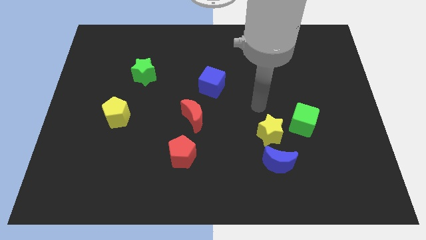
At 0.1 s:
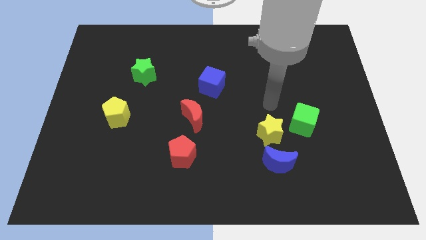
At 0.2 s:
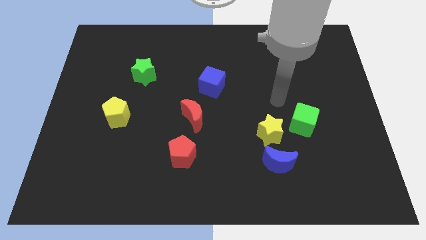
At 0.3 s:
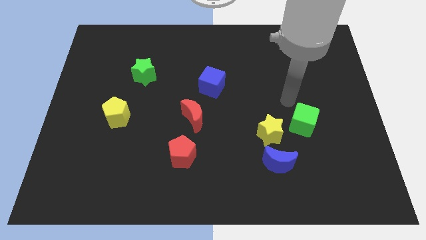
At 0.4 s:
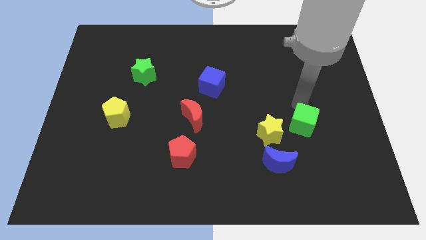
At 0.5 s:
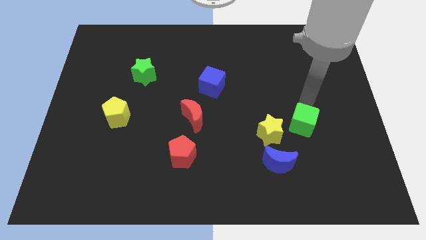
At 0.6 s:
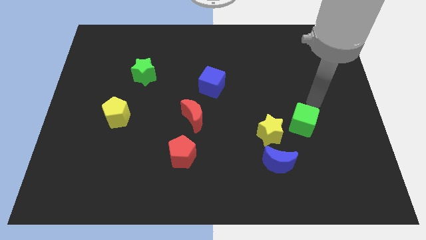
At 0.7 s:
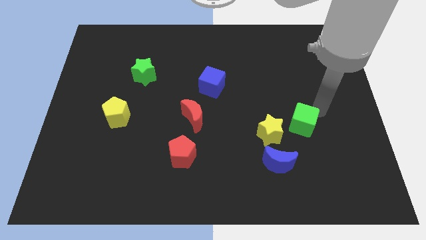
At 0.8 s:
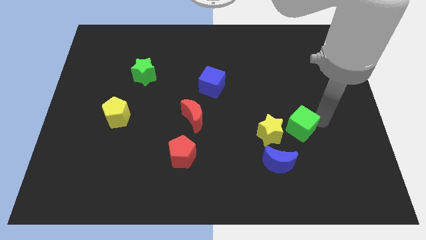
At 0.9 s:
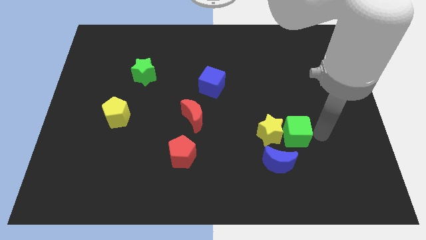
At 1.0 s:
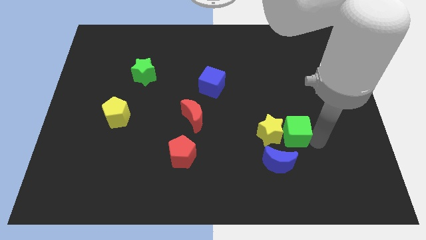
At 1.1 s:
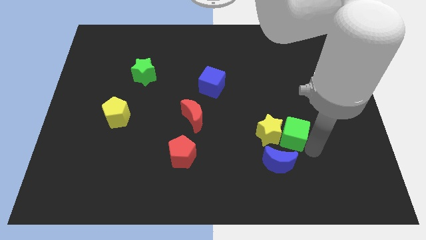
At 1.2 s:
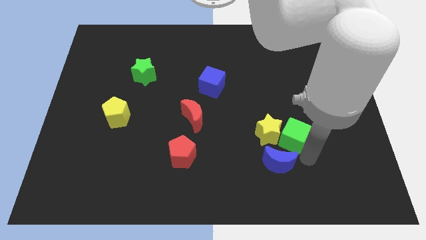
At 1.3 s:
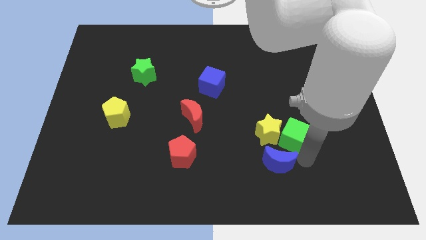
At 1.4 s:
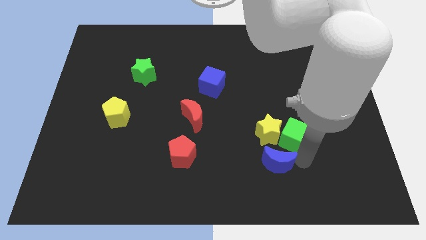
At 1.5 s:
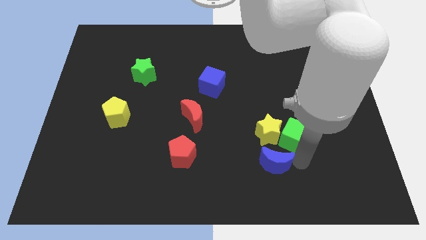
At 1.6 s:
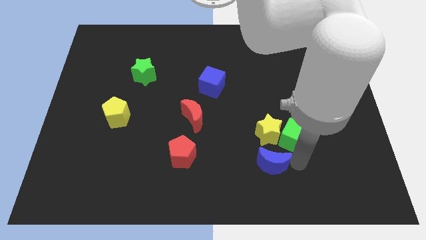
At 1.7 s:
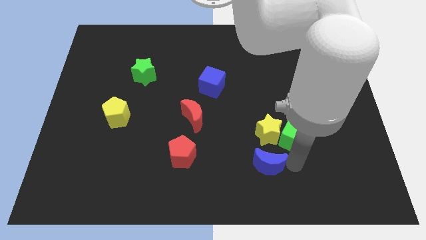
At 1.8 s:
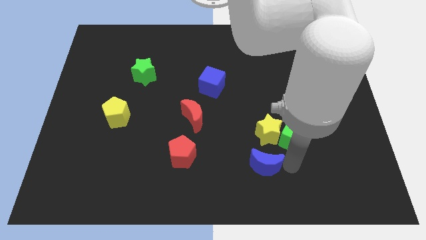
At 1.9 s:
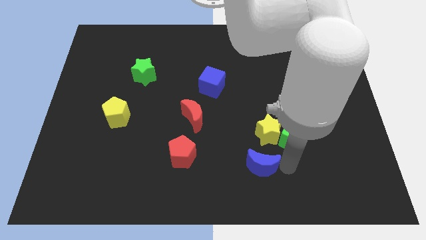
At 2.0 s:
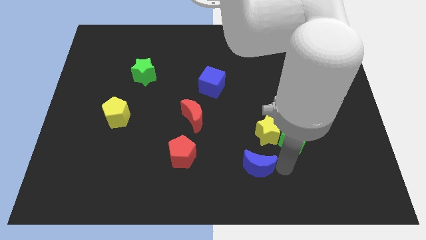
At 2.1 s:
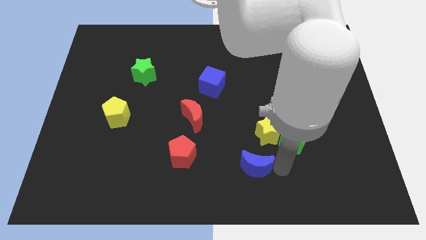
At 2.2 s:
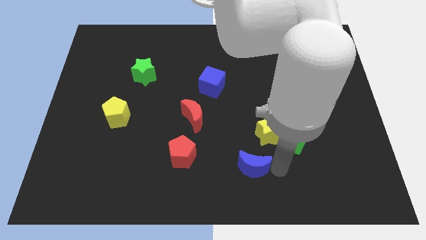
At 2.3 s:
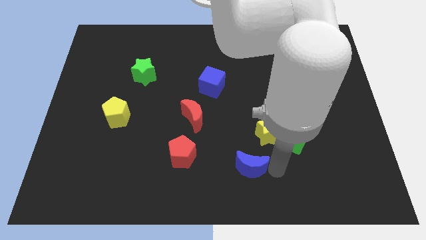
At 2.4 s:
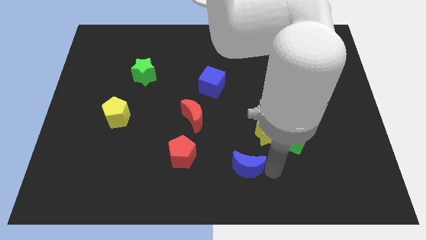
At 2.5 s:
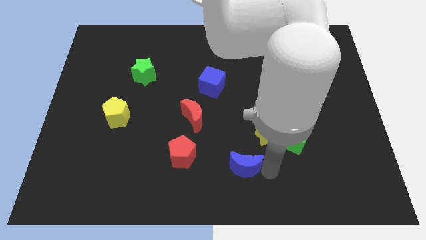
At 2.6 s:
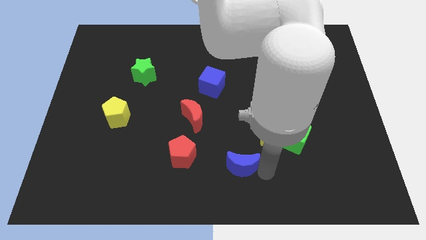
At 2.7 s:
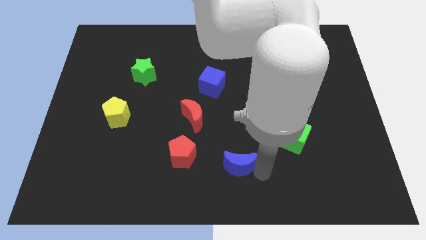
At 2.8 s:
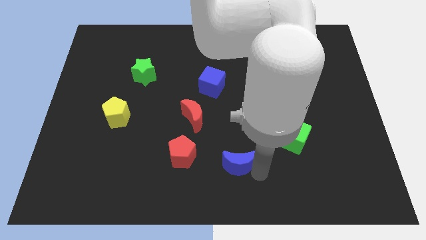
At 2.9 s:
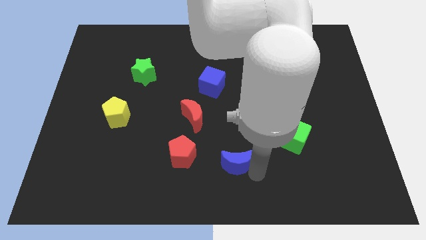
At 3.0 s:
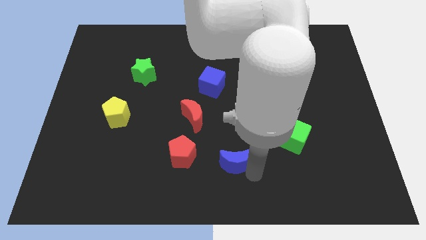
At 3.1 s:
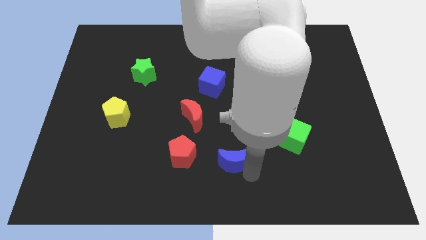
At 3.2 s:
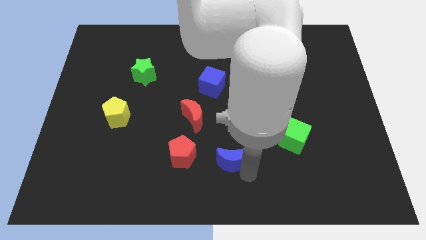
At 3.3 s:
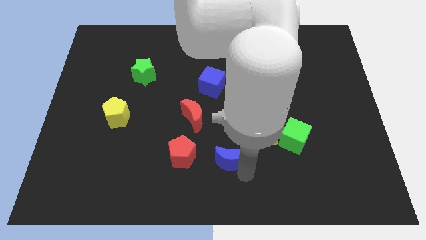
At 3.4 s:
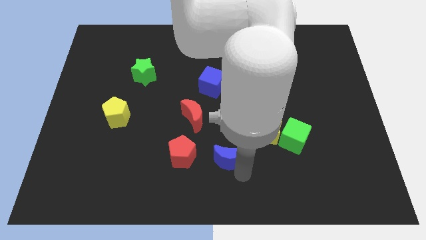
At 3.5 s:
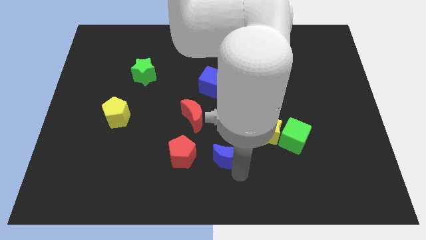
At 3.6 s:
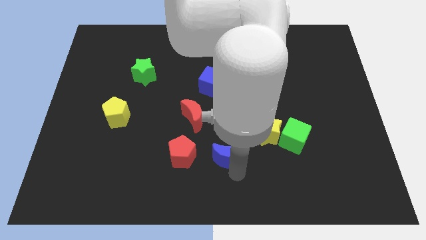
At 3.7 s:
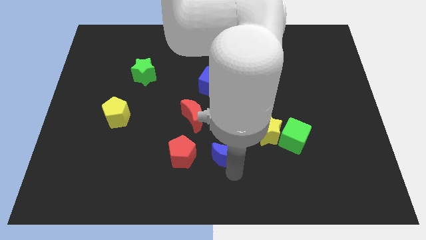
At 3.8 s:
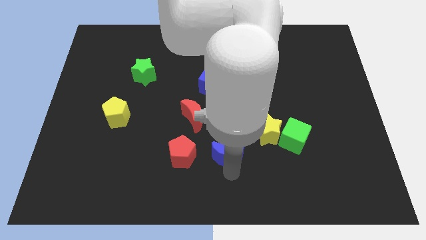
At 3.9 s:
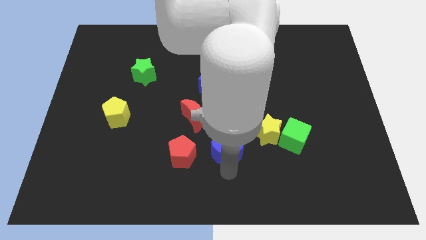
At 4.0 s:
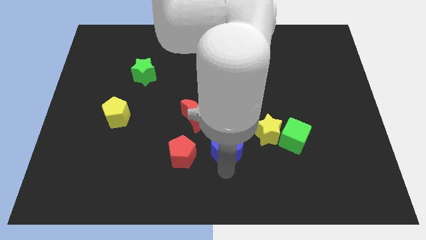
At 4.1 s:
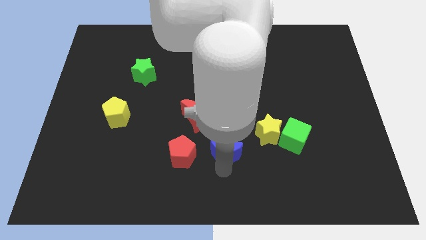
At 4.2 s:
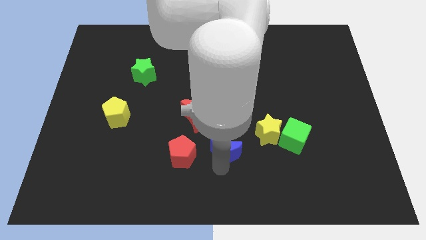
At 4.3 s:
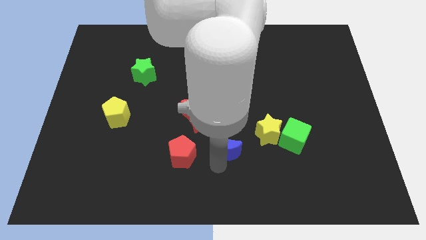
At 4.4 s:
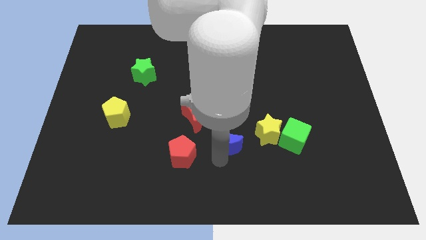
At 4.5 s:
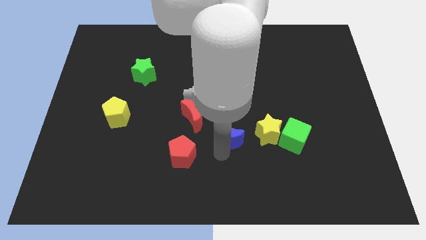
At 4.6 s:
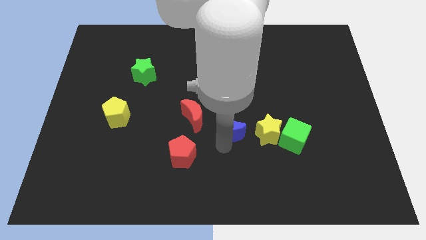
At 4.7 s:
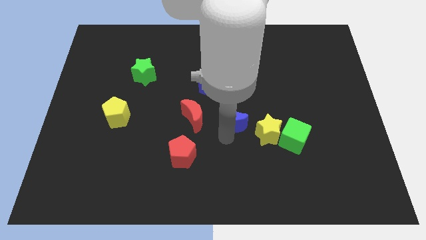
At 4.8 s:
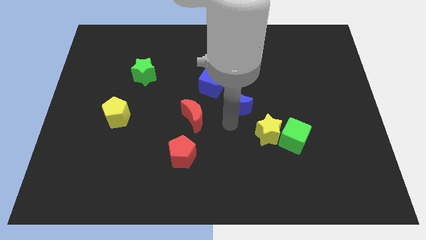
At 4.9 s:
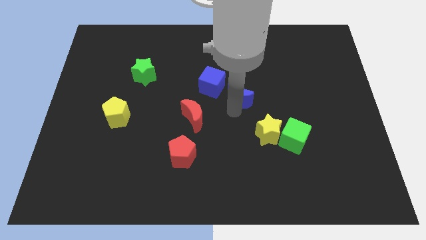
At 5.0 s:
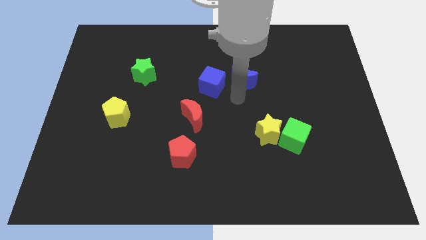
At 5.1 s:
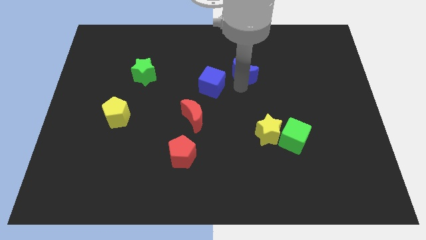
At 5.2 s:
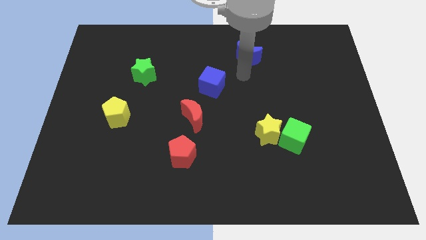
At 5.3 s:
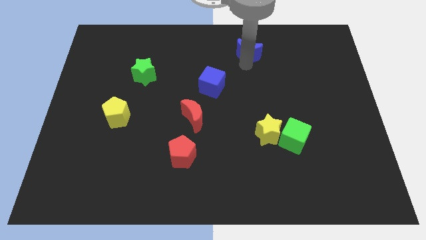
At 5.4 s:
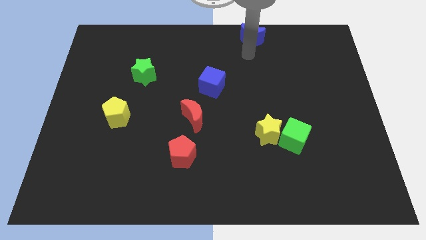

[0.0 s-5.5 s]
push the blue moon to the towards your base

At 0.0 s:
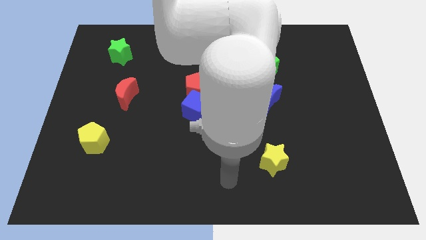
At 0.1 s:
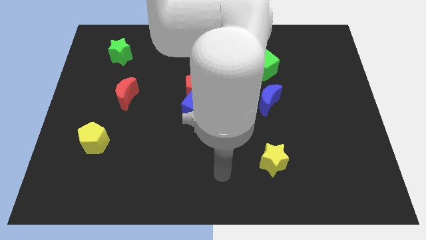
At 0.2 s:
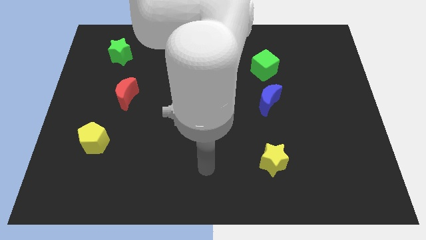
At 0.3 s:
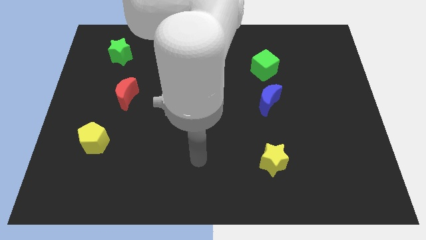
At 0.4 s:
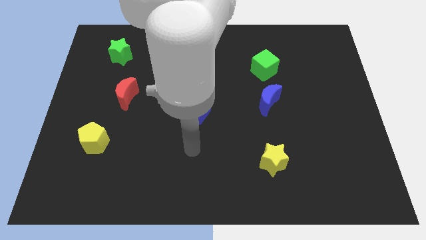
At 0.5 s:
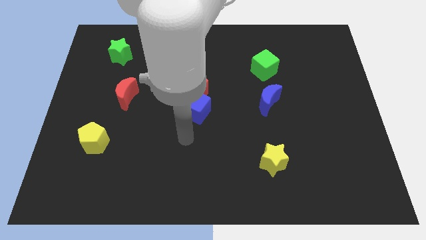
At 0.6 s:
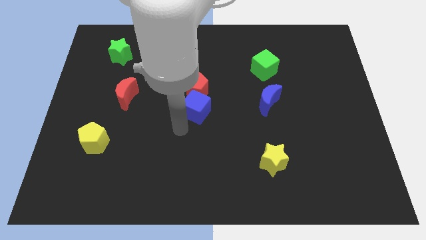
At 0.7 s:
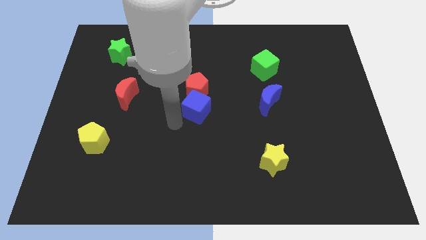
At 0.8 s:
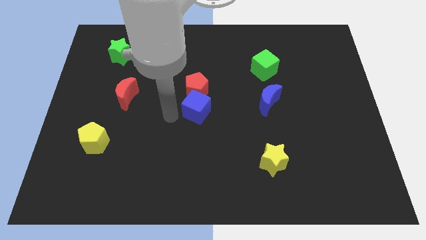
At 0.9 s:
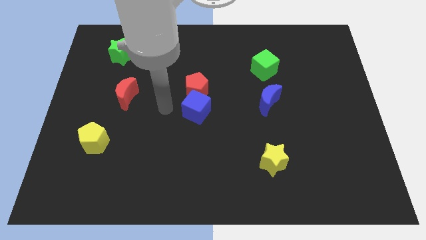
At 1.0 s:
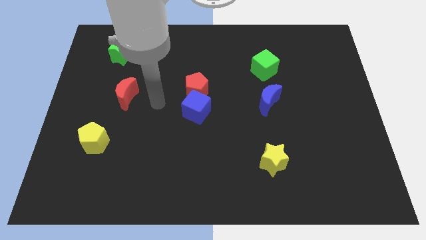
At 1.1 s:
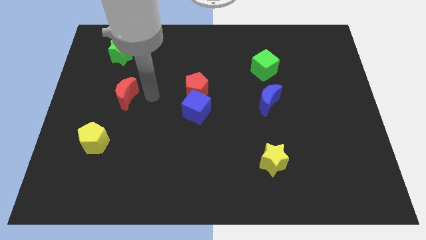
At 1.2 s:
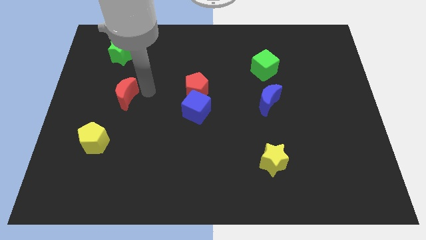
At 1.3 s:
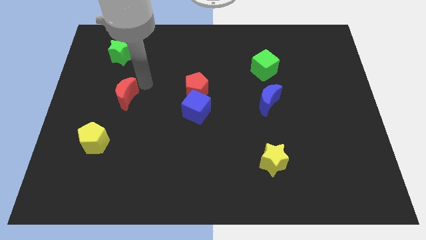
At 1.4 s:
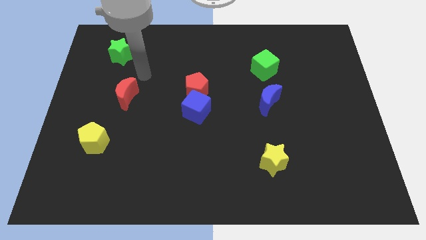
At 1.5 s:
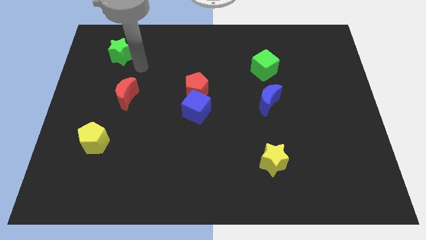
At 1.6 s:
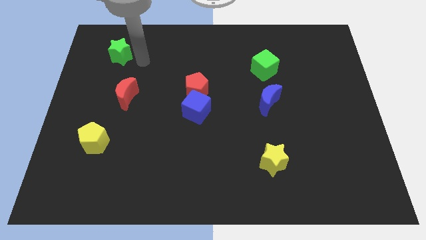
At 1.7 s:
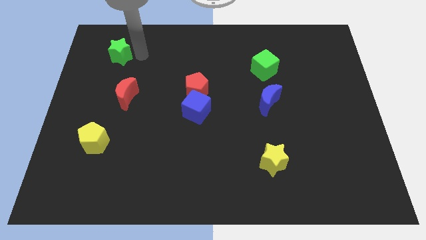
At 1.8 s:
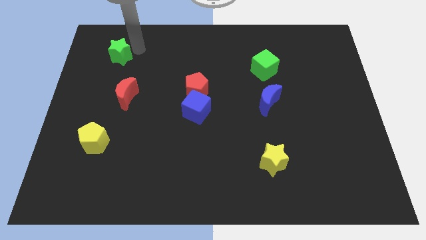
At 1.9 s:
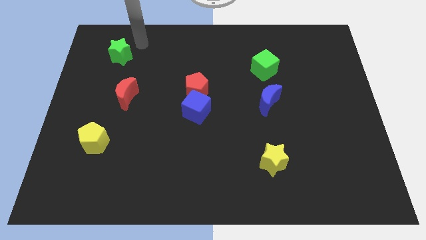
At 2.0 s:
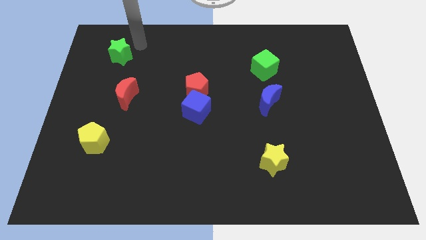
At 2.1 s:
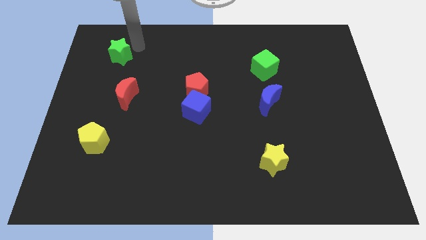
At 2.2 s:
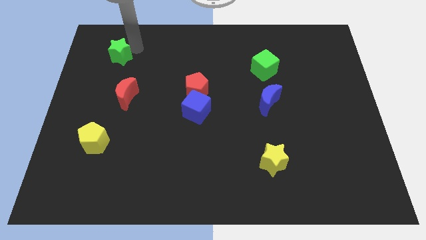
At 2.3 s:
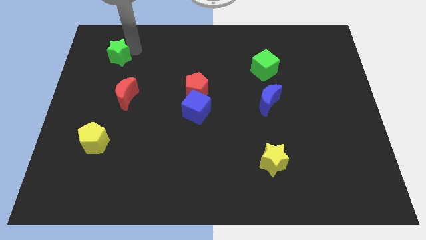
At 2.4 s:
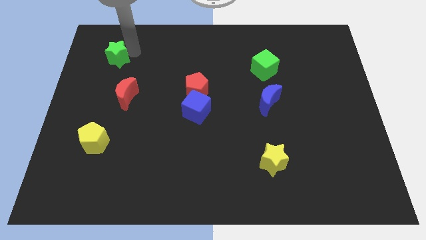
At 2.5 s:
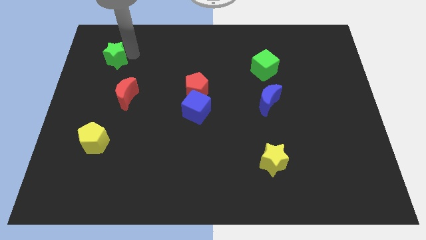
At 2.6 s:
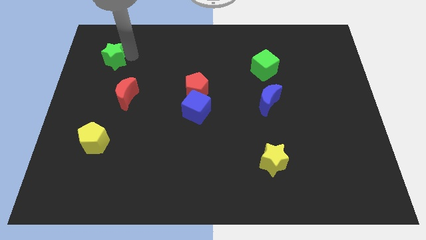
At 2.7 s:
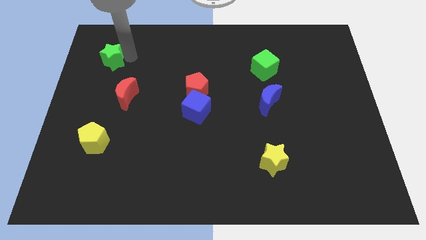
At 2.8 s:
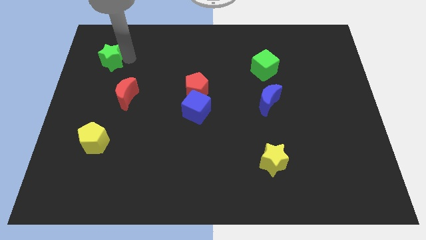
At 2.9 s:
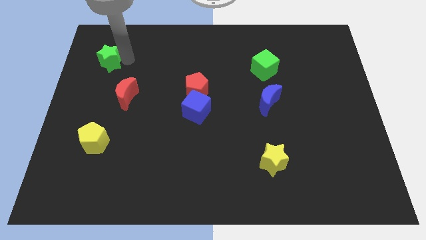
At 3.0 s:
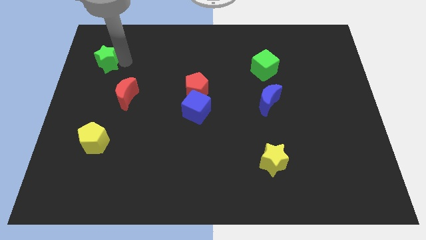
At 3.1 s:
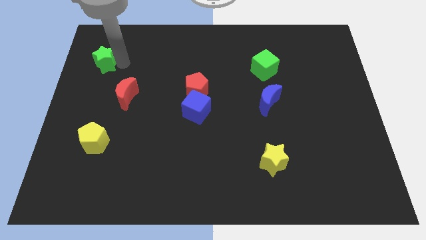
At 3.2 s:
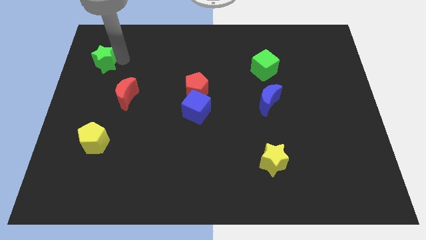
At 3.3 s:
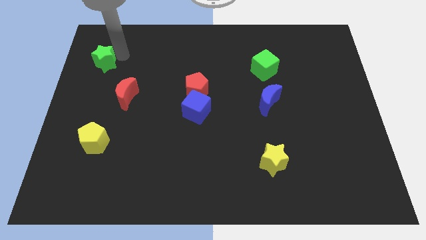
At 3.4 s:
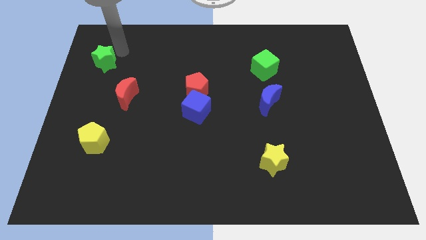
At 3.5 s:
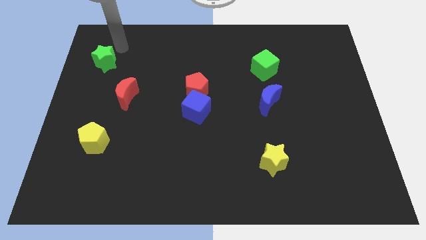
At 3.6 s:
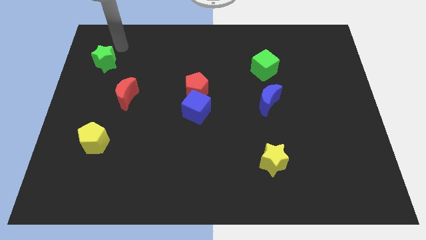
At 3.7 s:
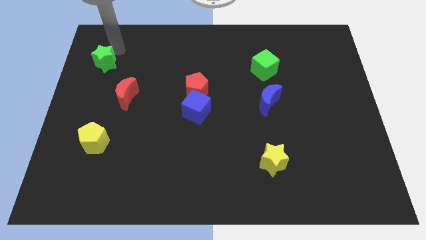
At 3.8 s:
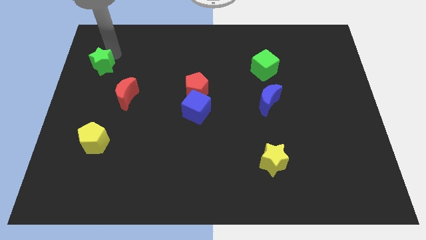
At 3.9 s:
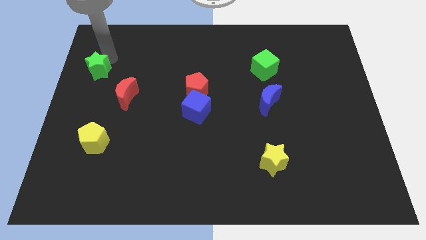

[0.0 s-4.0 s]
slide the green star to the left side of the board
